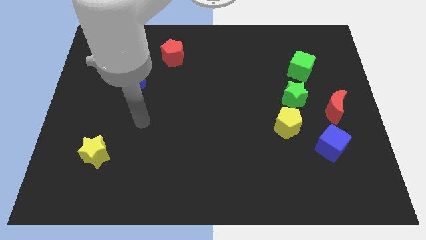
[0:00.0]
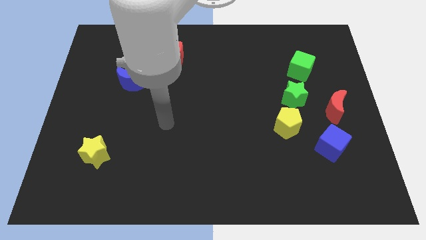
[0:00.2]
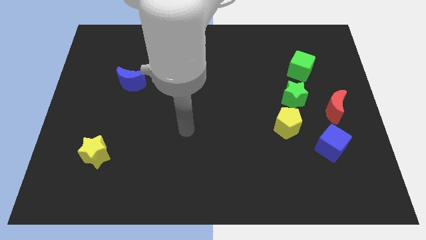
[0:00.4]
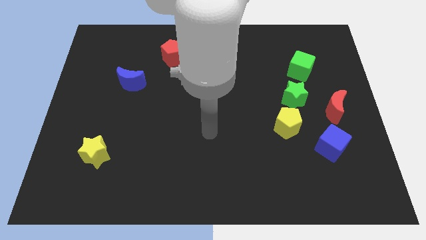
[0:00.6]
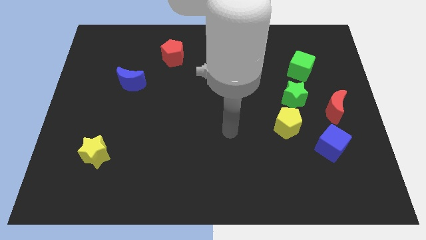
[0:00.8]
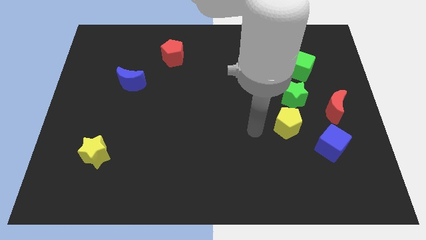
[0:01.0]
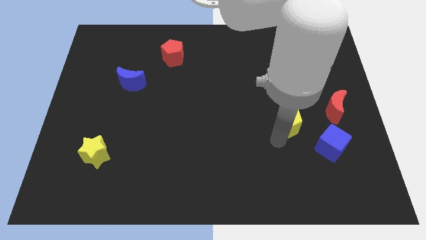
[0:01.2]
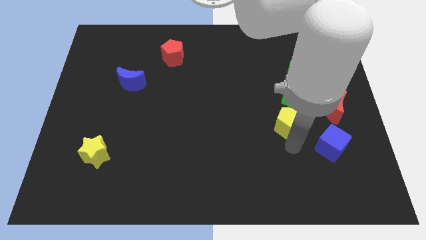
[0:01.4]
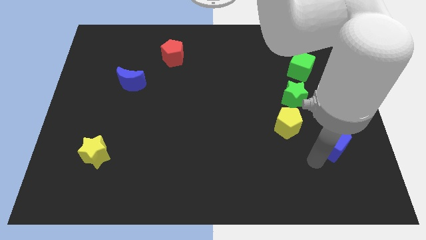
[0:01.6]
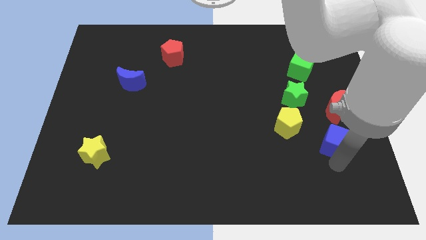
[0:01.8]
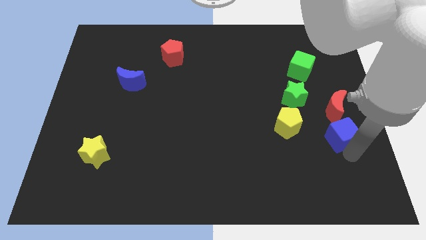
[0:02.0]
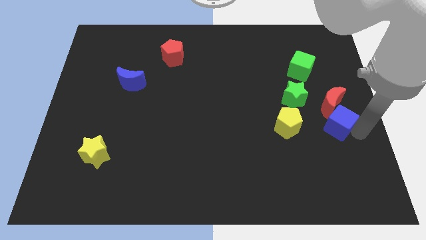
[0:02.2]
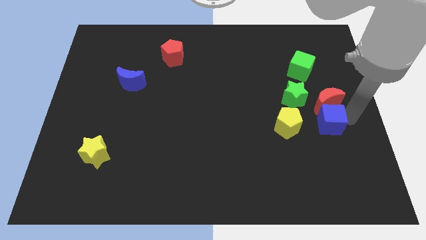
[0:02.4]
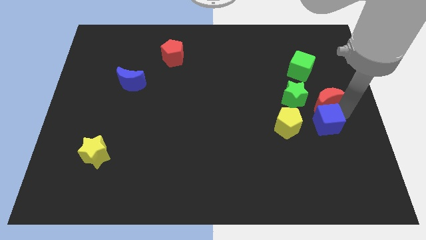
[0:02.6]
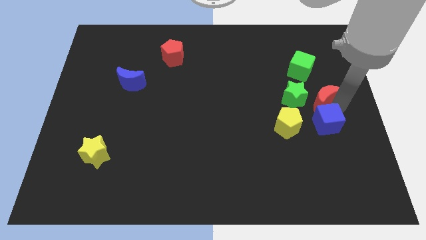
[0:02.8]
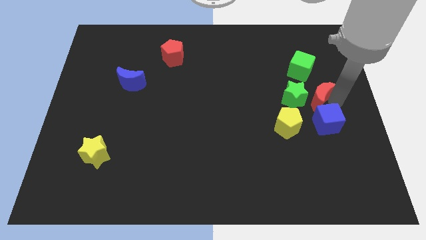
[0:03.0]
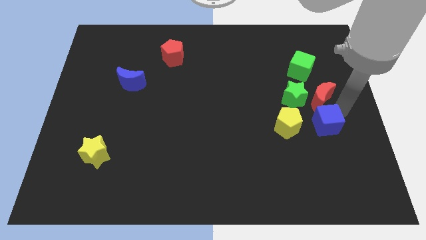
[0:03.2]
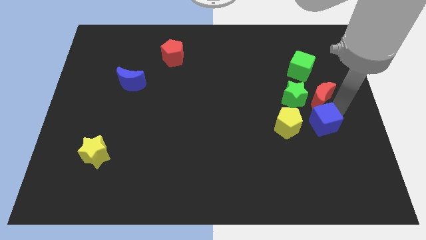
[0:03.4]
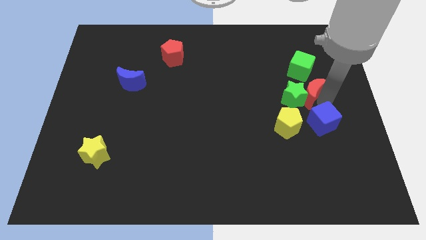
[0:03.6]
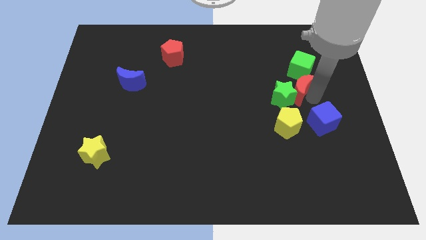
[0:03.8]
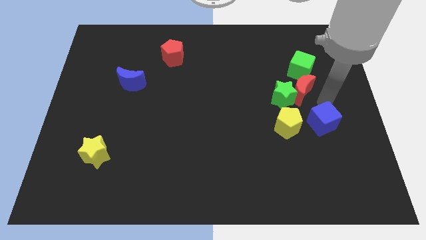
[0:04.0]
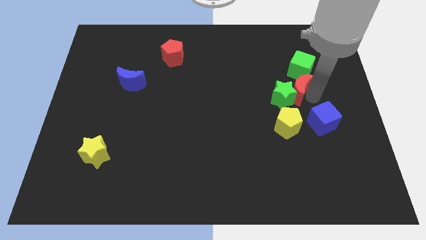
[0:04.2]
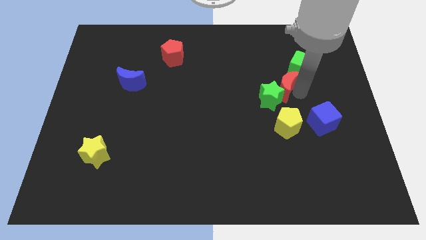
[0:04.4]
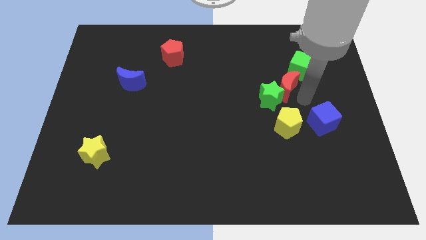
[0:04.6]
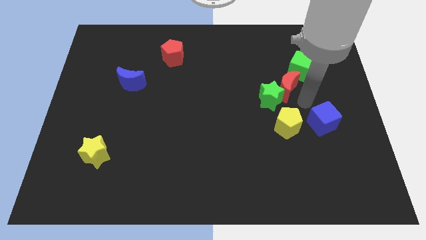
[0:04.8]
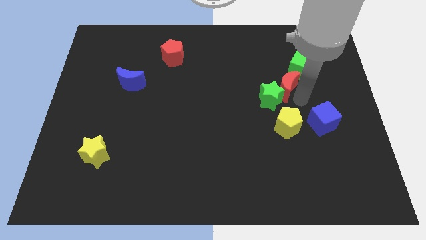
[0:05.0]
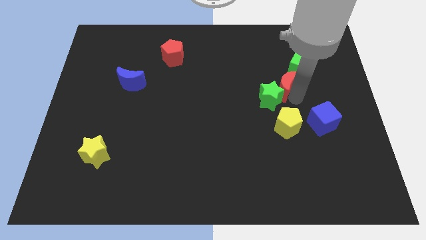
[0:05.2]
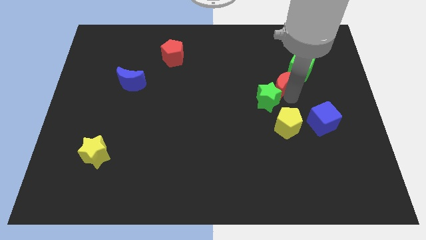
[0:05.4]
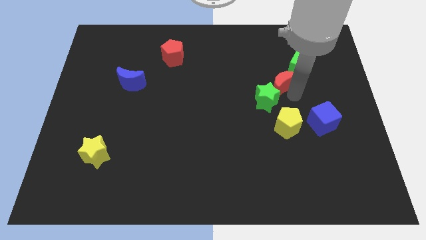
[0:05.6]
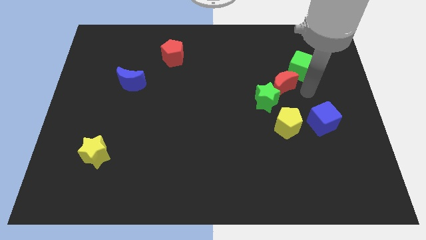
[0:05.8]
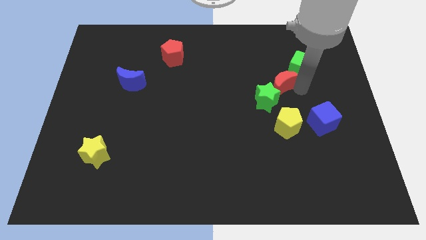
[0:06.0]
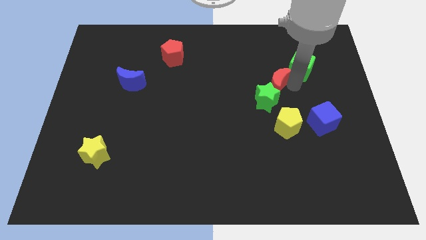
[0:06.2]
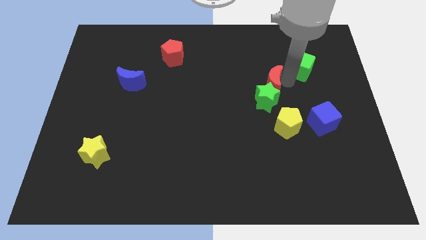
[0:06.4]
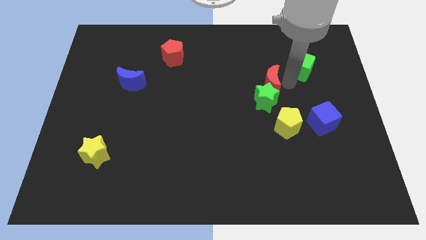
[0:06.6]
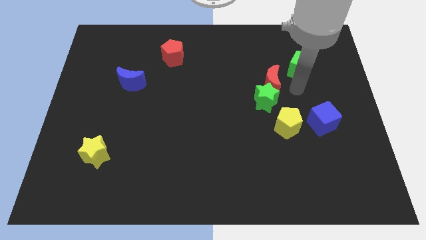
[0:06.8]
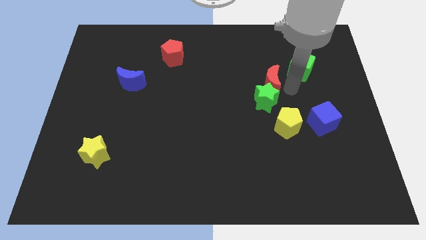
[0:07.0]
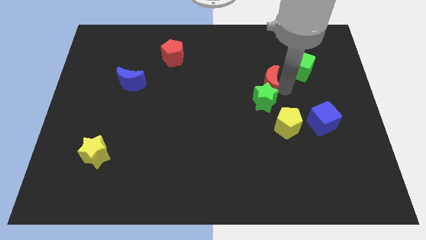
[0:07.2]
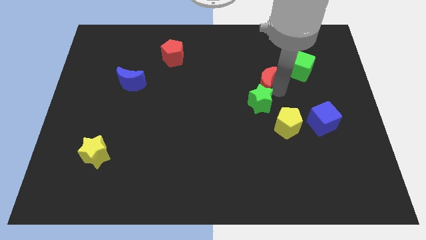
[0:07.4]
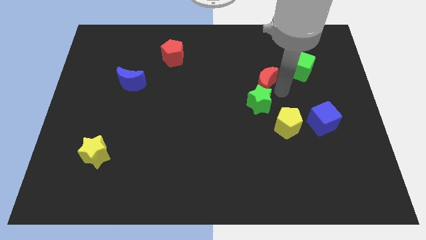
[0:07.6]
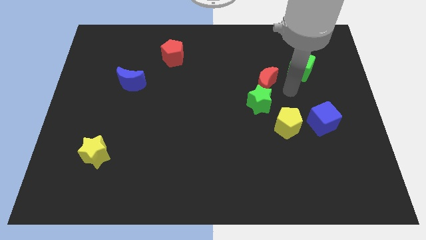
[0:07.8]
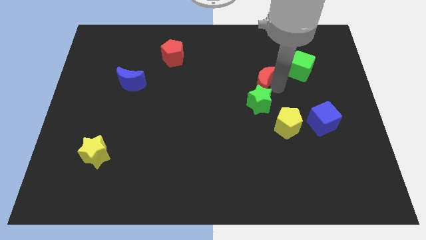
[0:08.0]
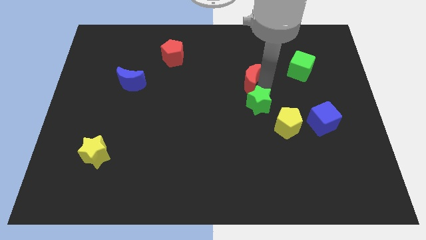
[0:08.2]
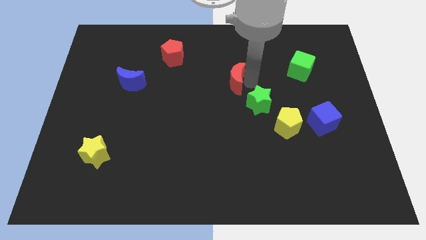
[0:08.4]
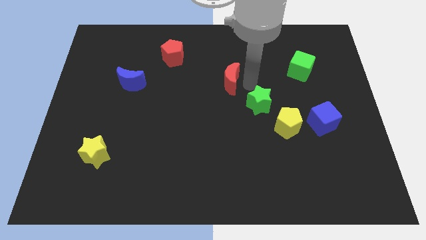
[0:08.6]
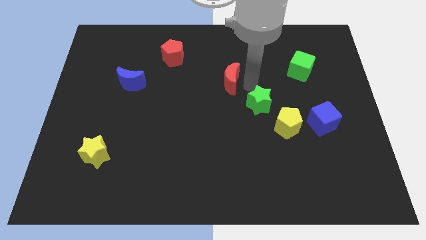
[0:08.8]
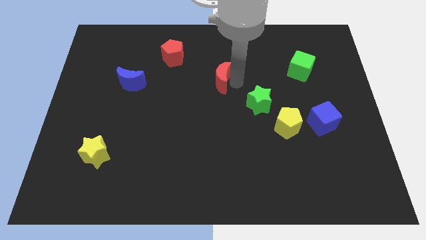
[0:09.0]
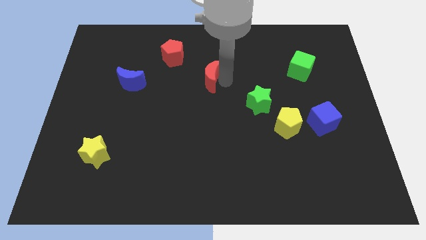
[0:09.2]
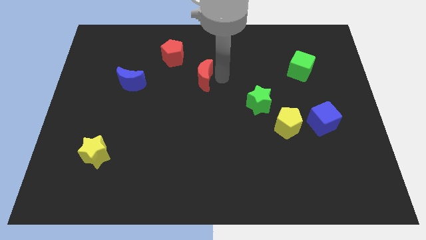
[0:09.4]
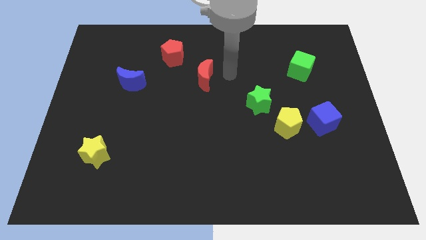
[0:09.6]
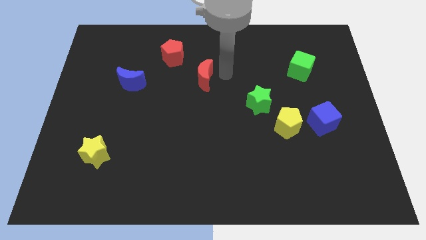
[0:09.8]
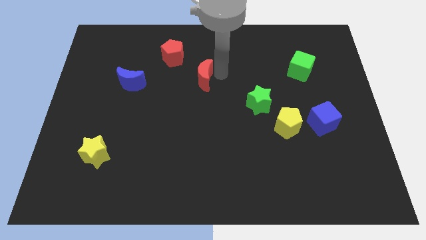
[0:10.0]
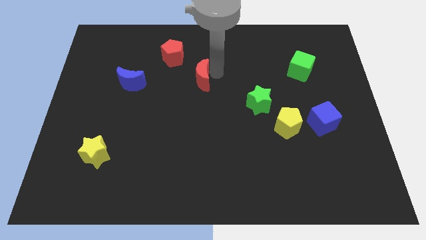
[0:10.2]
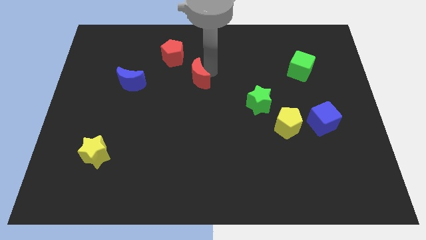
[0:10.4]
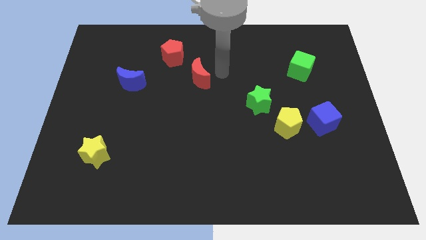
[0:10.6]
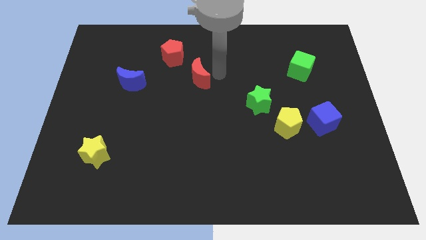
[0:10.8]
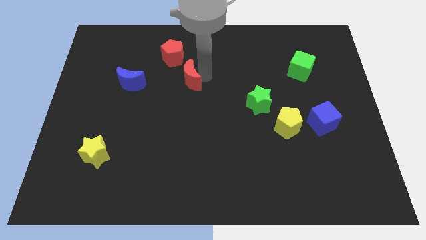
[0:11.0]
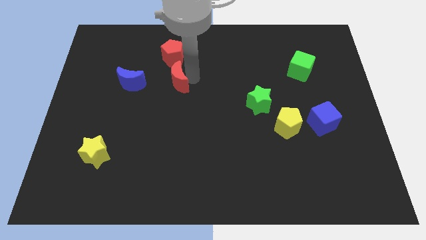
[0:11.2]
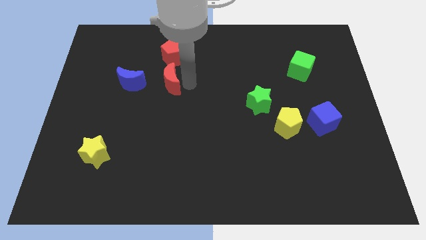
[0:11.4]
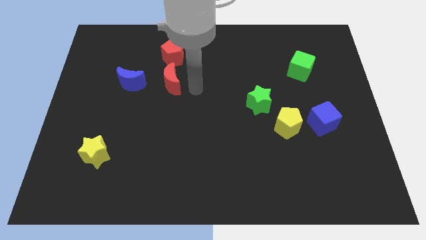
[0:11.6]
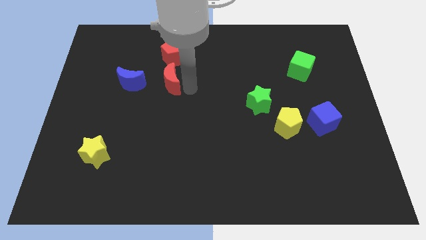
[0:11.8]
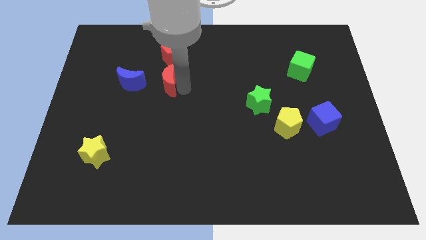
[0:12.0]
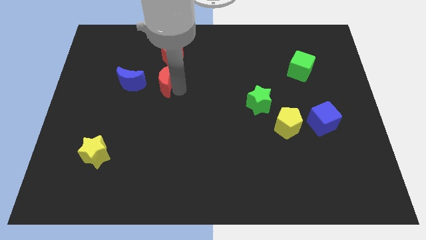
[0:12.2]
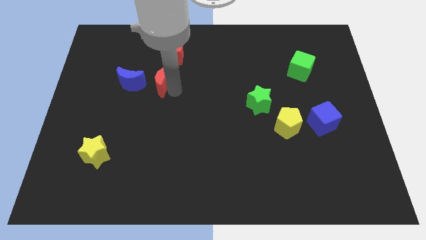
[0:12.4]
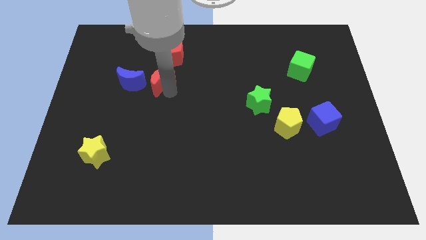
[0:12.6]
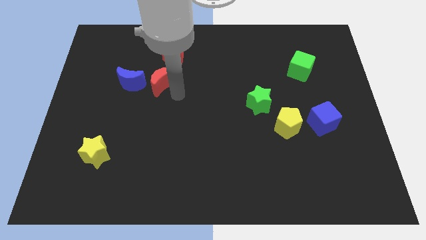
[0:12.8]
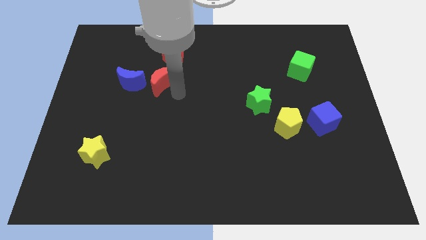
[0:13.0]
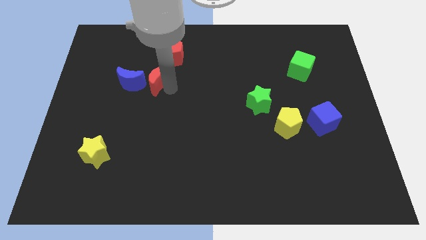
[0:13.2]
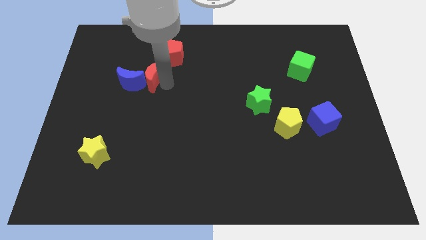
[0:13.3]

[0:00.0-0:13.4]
put the red moon to the blue moon

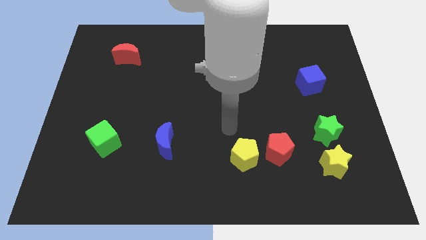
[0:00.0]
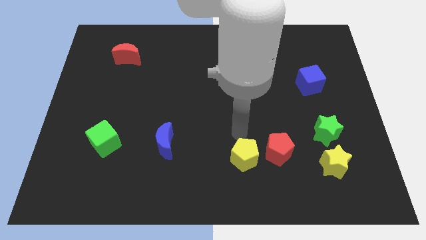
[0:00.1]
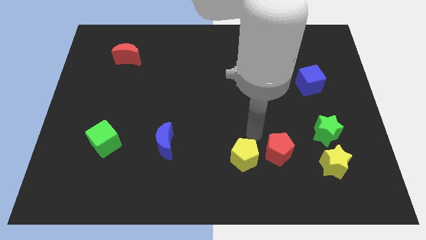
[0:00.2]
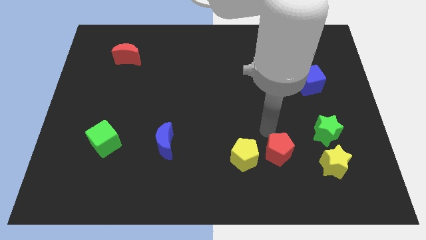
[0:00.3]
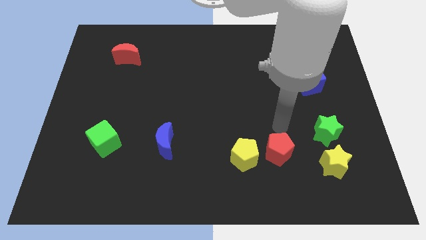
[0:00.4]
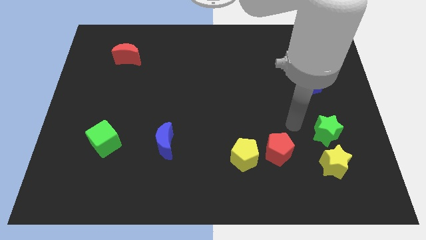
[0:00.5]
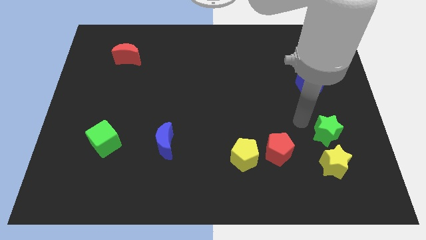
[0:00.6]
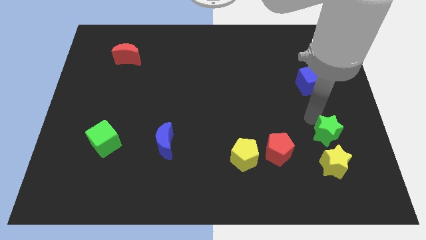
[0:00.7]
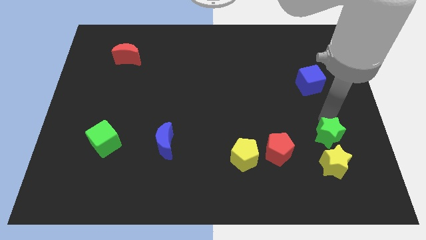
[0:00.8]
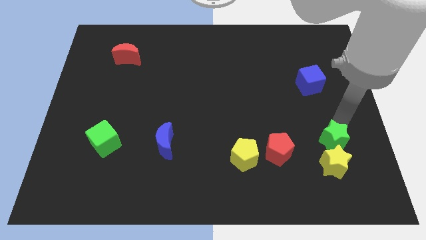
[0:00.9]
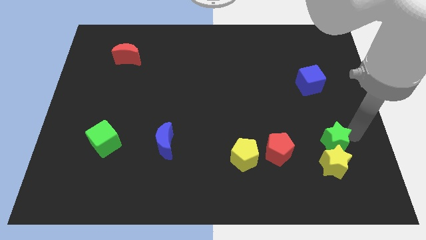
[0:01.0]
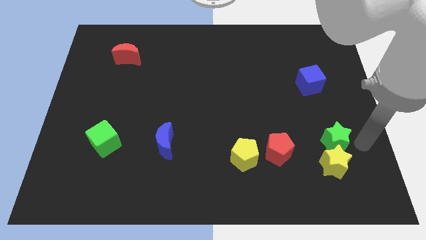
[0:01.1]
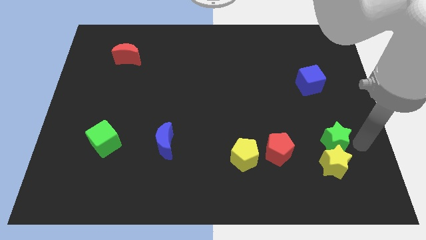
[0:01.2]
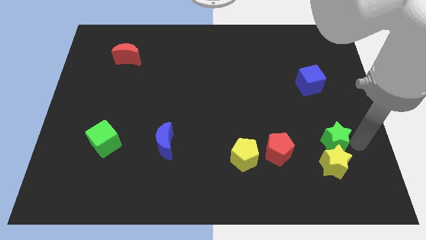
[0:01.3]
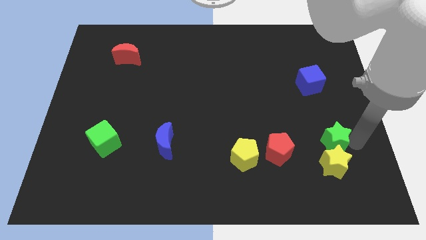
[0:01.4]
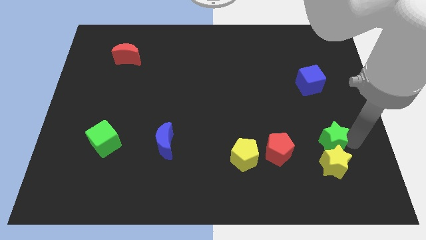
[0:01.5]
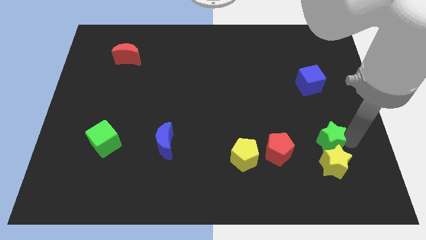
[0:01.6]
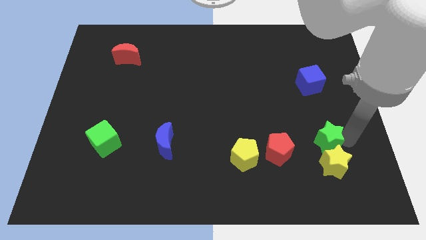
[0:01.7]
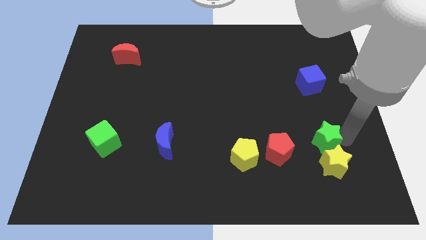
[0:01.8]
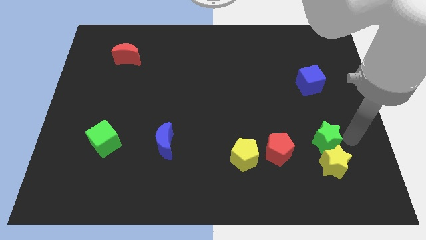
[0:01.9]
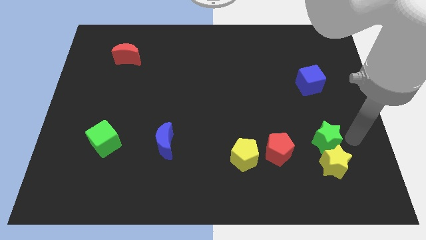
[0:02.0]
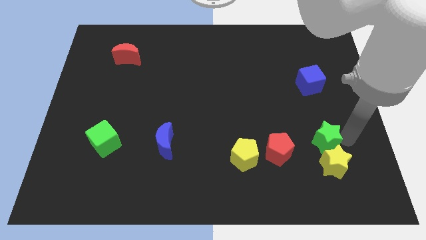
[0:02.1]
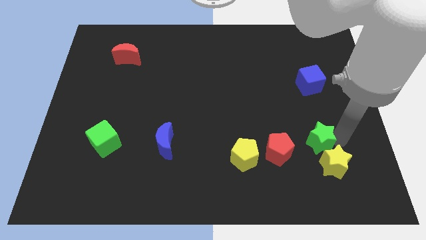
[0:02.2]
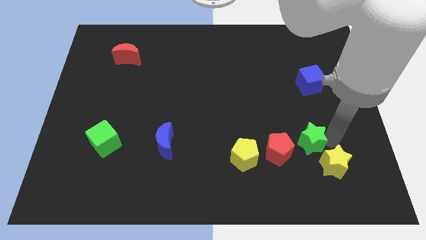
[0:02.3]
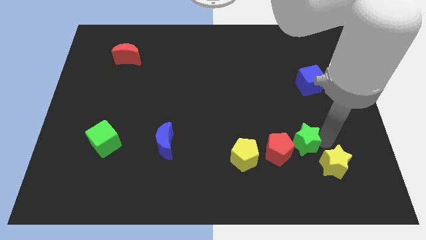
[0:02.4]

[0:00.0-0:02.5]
put the green star towards the red pentagon
